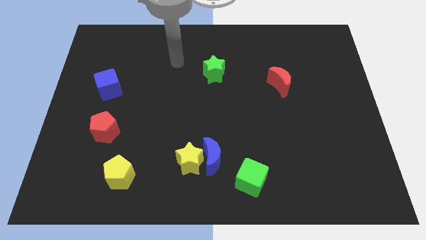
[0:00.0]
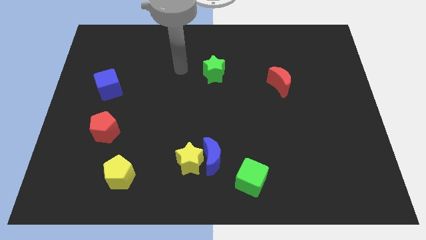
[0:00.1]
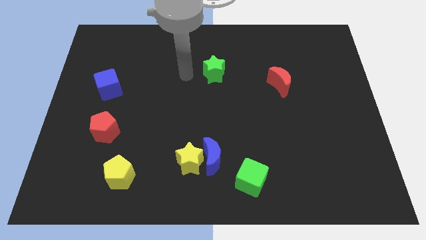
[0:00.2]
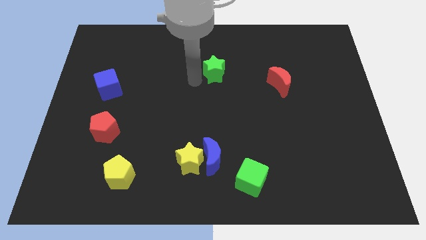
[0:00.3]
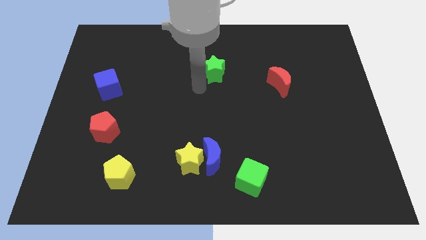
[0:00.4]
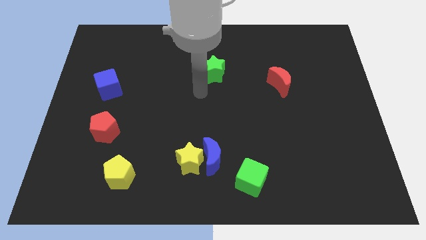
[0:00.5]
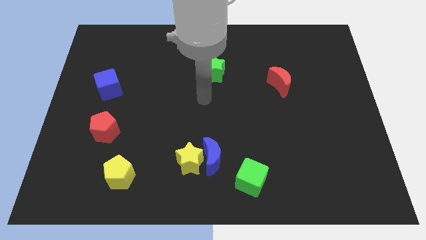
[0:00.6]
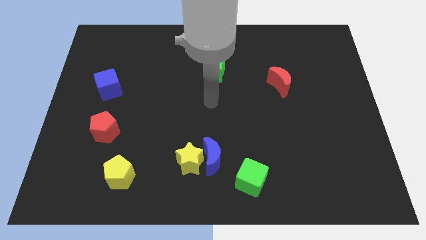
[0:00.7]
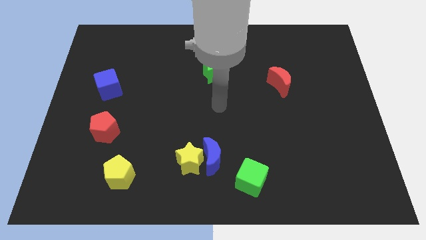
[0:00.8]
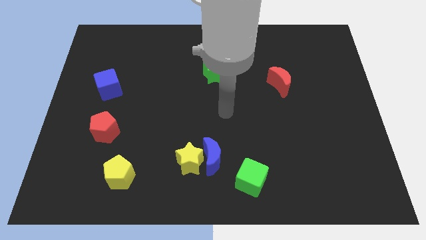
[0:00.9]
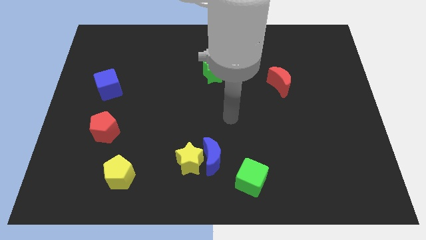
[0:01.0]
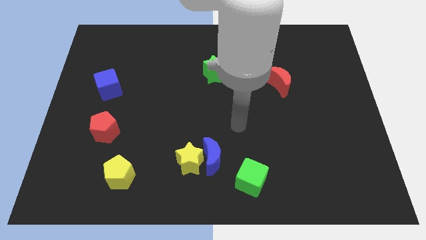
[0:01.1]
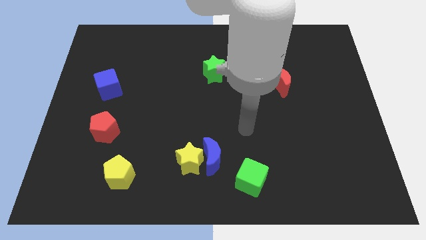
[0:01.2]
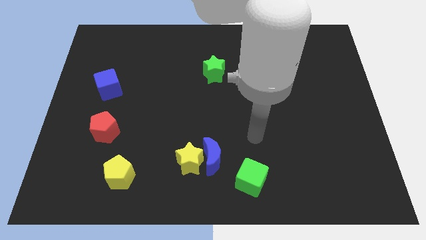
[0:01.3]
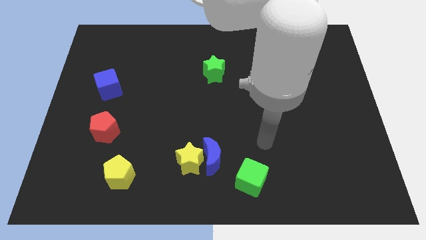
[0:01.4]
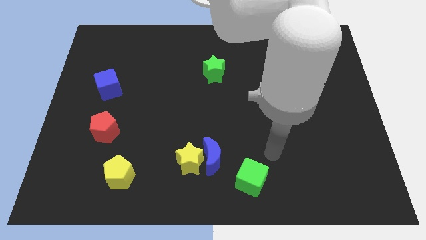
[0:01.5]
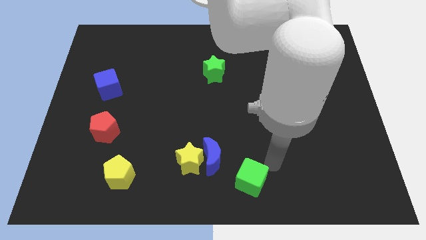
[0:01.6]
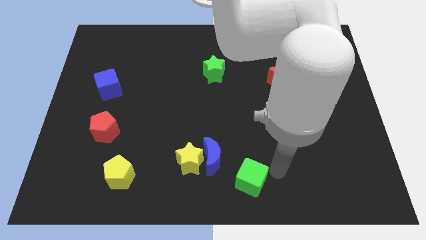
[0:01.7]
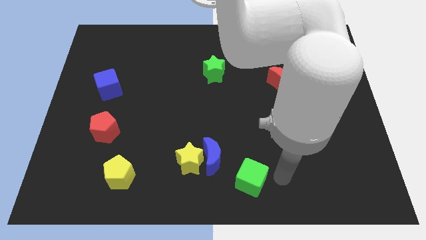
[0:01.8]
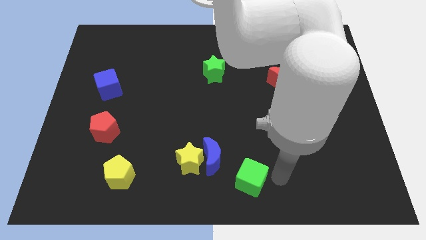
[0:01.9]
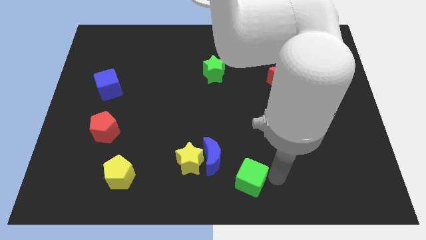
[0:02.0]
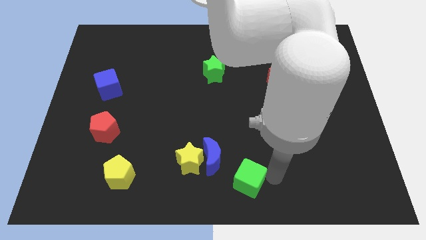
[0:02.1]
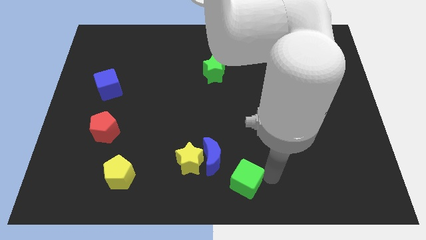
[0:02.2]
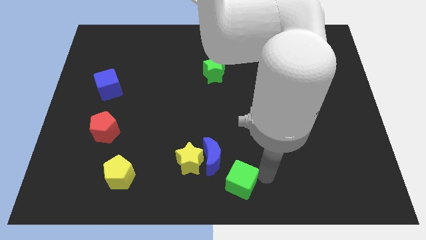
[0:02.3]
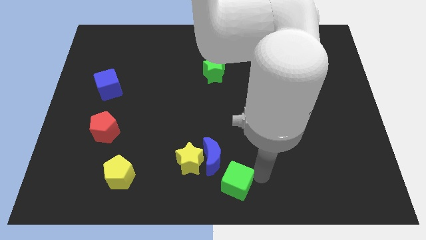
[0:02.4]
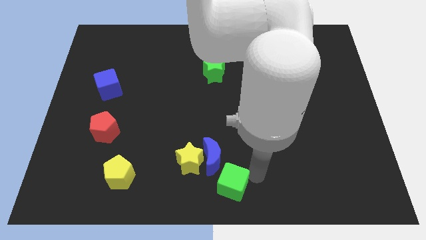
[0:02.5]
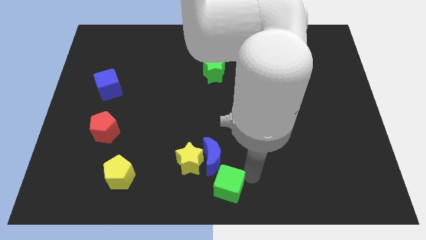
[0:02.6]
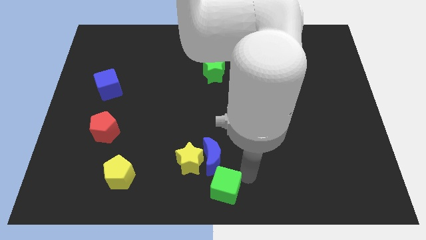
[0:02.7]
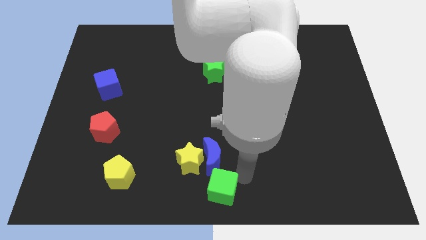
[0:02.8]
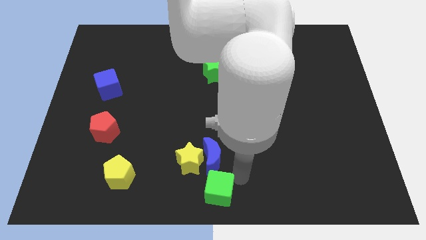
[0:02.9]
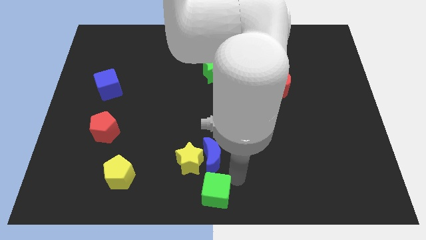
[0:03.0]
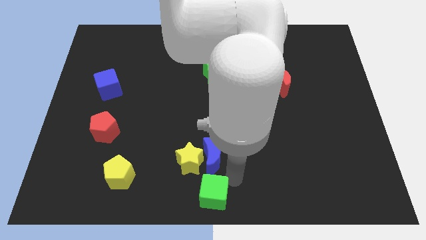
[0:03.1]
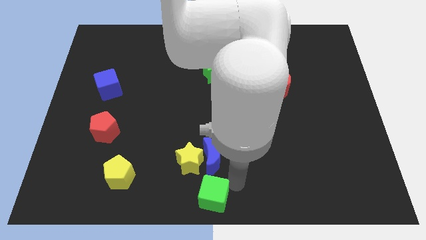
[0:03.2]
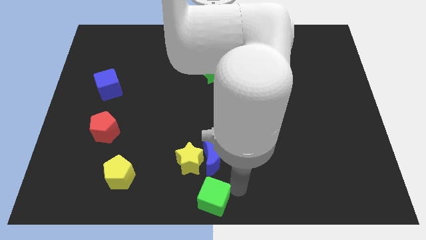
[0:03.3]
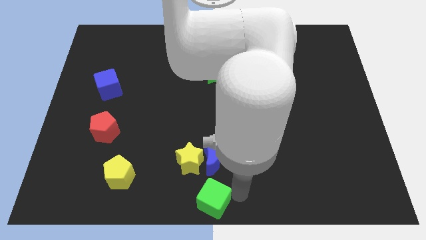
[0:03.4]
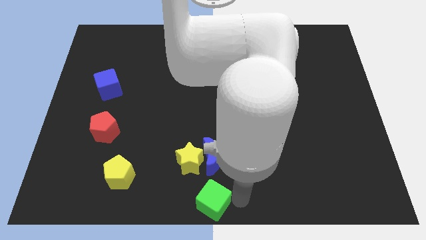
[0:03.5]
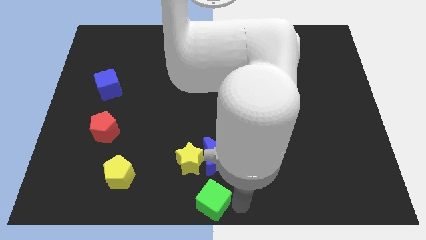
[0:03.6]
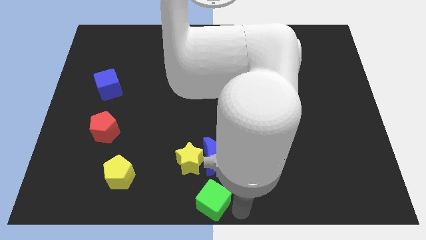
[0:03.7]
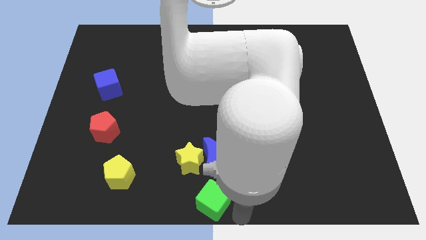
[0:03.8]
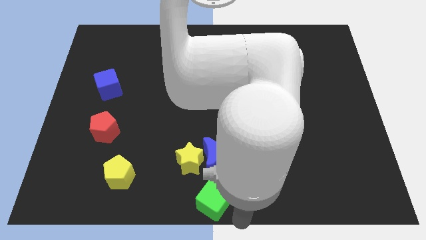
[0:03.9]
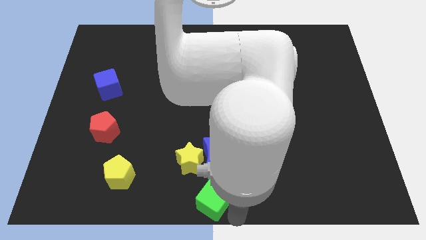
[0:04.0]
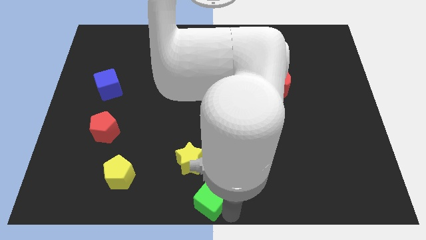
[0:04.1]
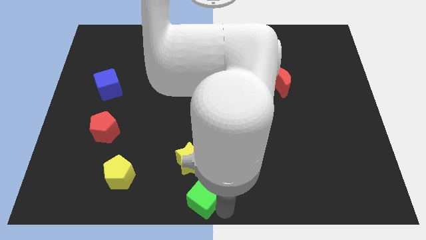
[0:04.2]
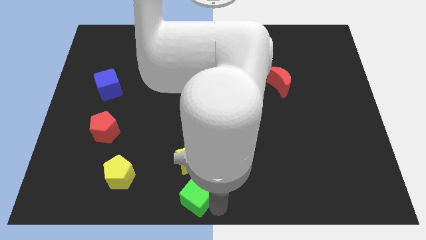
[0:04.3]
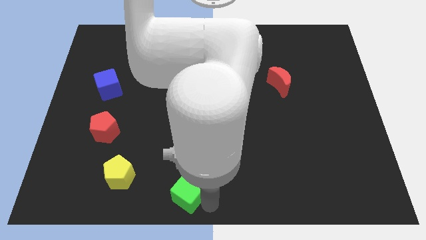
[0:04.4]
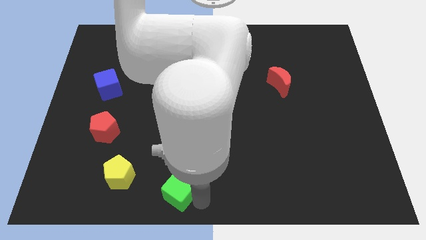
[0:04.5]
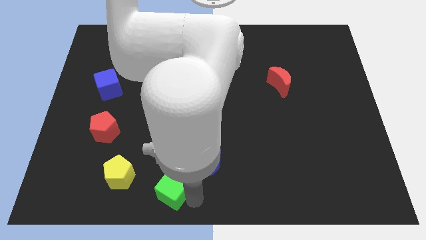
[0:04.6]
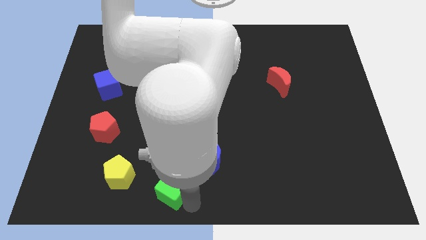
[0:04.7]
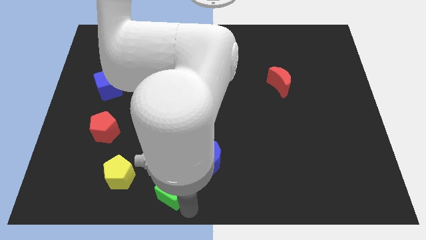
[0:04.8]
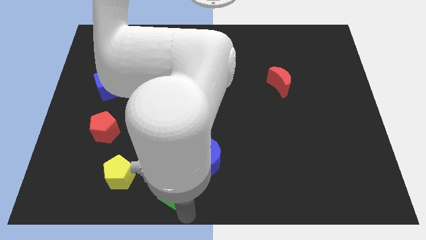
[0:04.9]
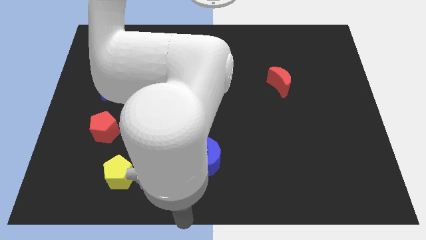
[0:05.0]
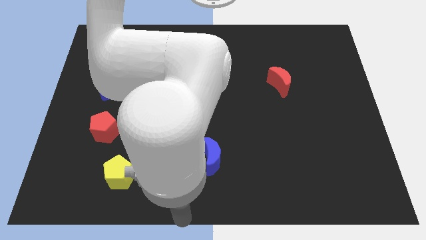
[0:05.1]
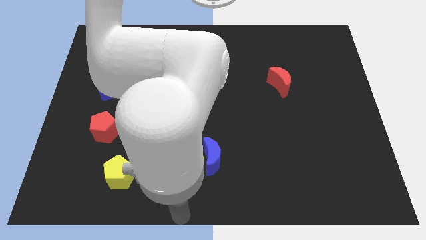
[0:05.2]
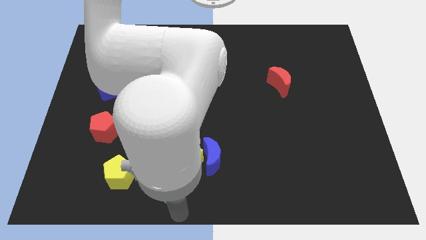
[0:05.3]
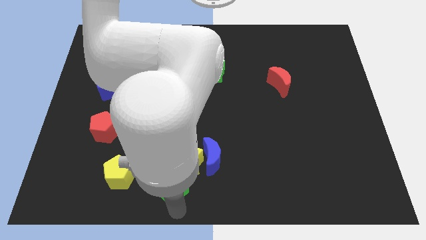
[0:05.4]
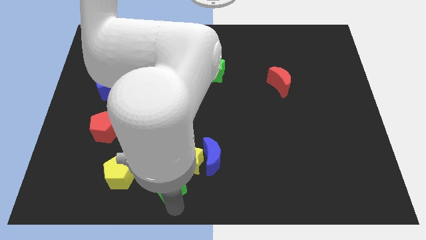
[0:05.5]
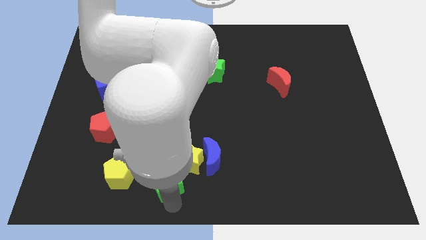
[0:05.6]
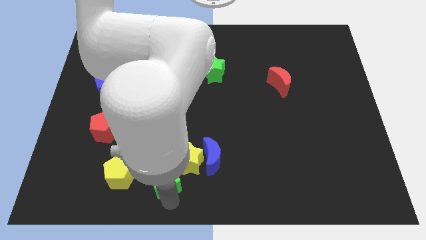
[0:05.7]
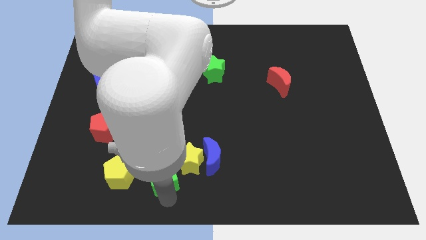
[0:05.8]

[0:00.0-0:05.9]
slide the green cube just left of the blue moon
